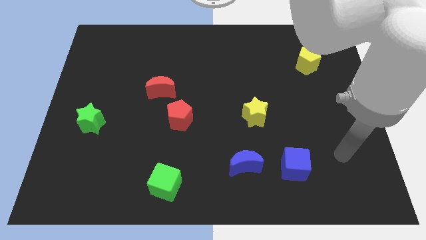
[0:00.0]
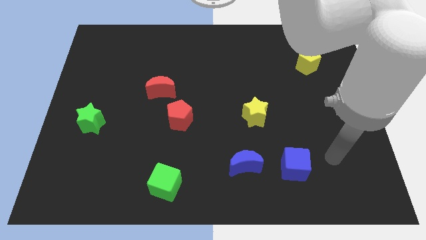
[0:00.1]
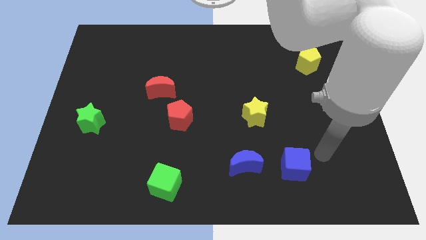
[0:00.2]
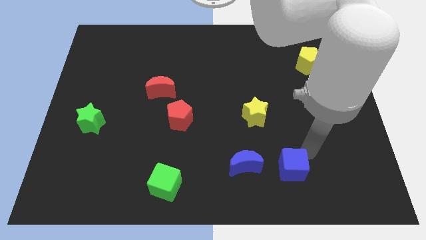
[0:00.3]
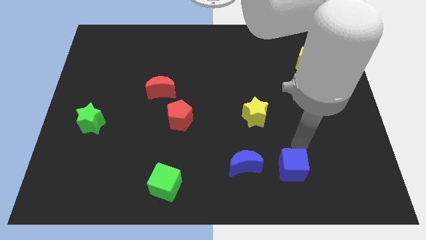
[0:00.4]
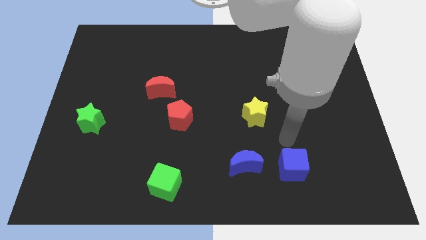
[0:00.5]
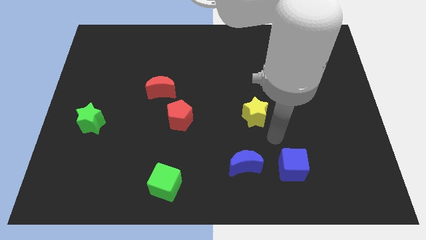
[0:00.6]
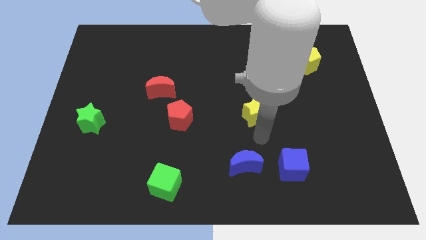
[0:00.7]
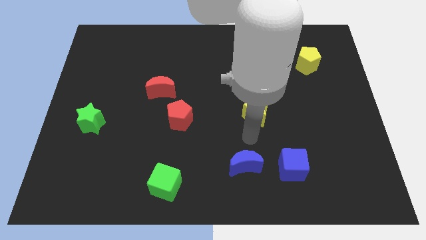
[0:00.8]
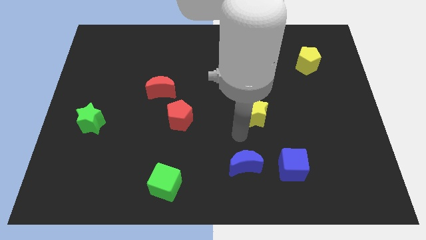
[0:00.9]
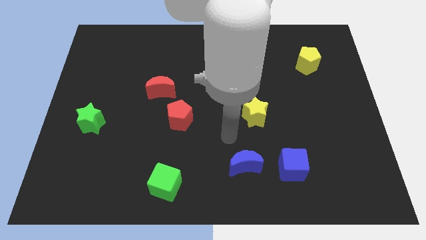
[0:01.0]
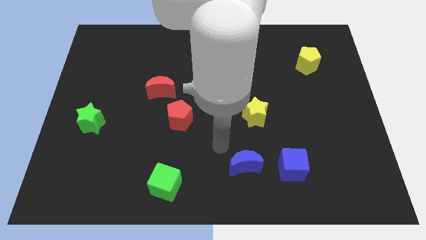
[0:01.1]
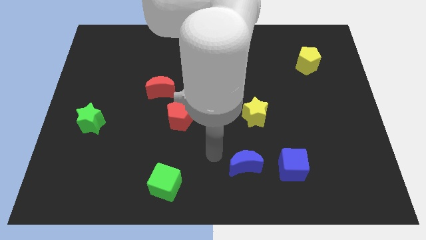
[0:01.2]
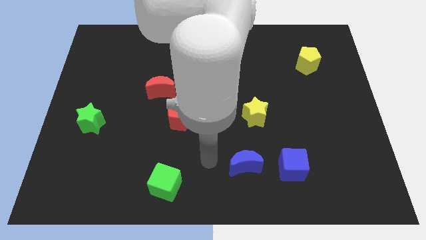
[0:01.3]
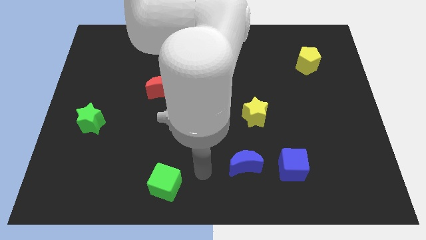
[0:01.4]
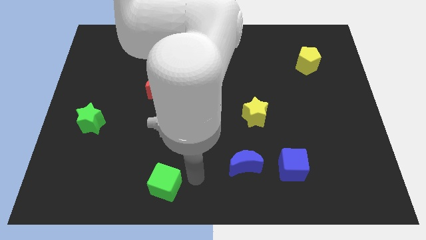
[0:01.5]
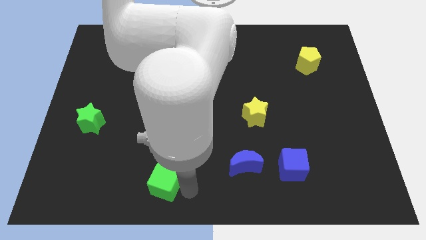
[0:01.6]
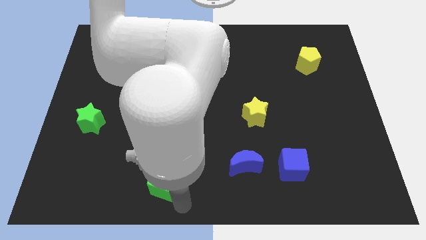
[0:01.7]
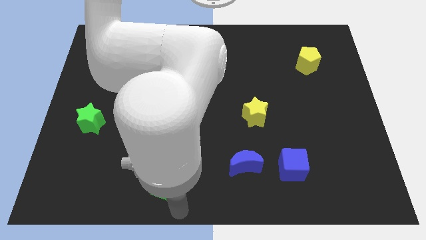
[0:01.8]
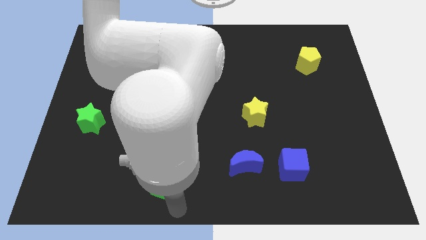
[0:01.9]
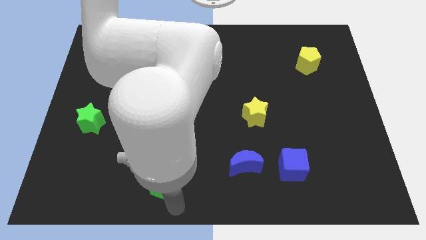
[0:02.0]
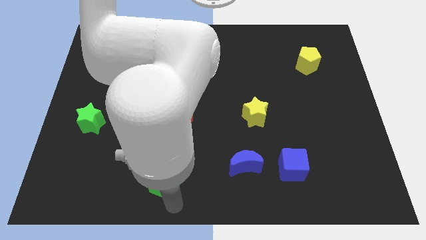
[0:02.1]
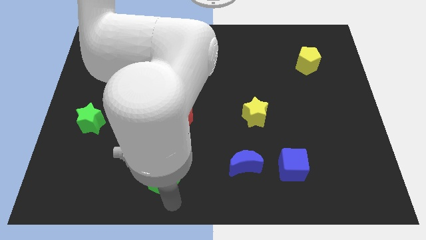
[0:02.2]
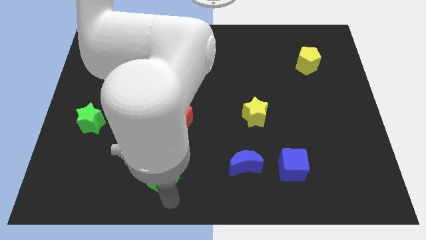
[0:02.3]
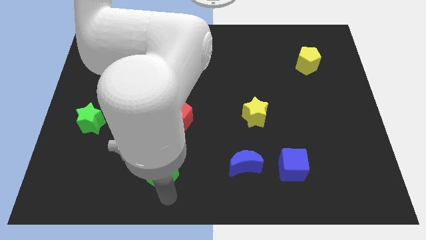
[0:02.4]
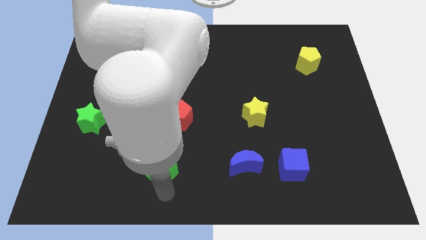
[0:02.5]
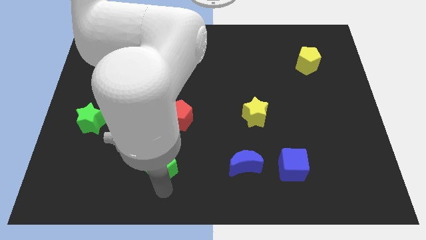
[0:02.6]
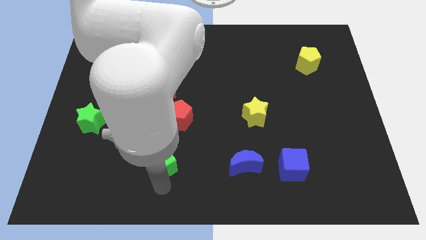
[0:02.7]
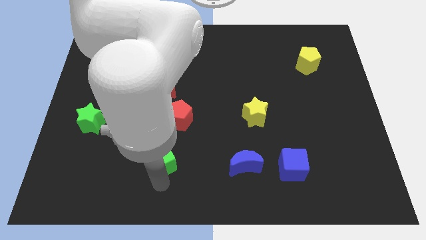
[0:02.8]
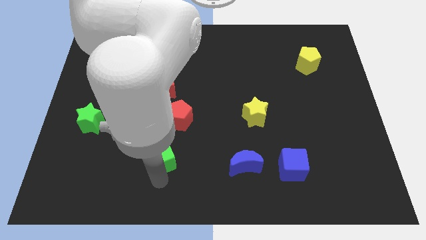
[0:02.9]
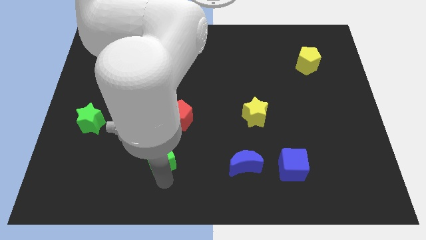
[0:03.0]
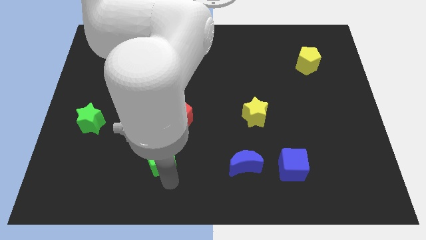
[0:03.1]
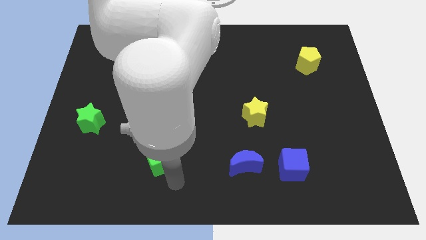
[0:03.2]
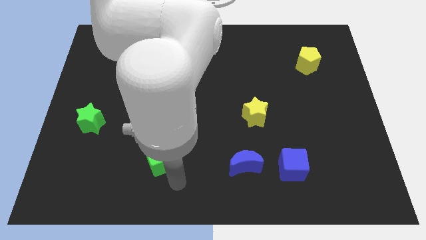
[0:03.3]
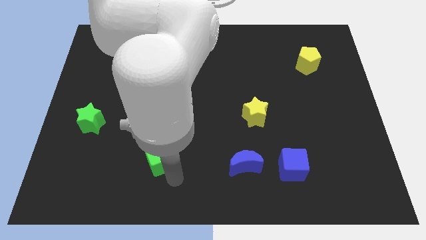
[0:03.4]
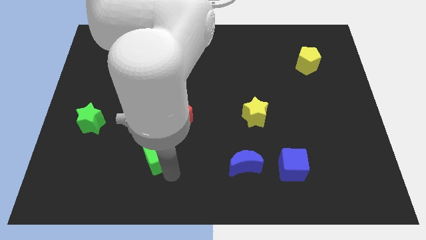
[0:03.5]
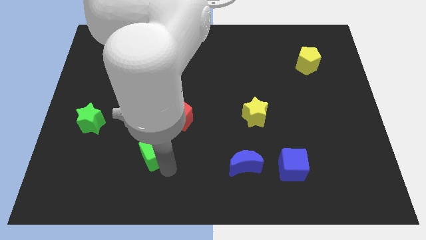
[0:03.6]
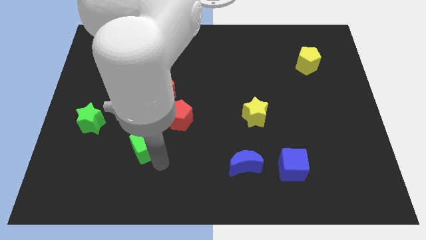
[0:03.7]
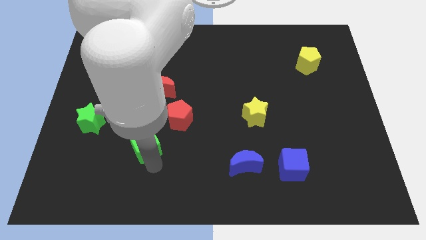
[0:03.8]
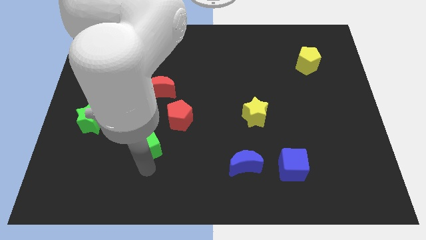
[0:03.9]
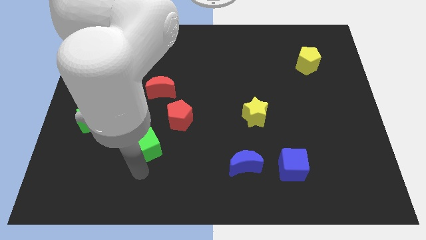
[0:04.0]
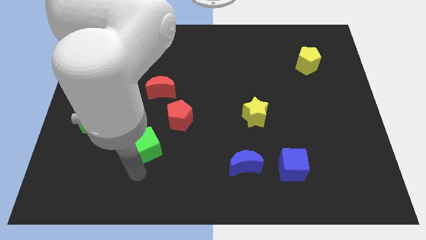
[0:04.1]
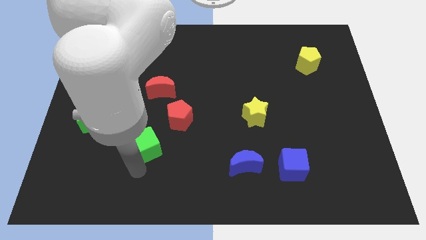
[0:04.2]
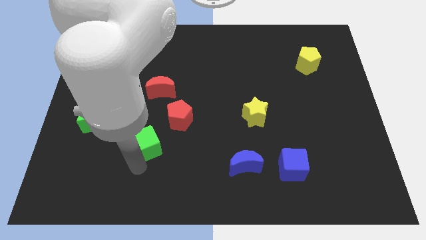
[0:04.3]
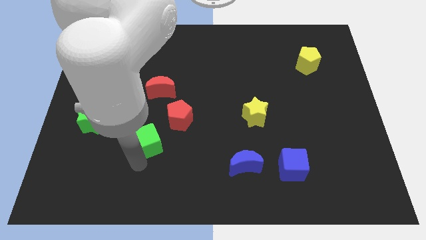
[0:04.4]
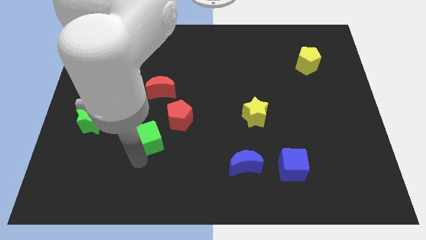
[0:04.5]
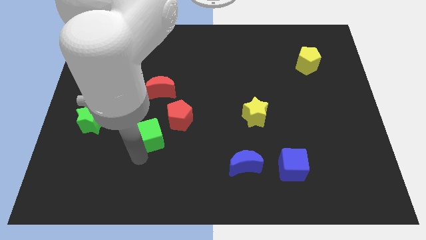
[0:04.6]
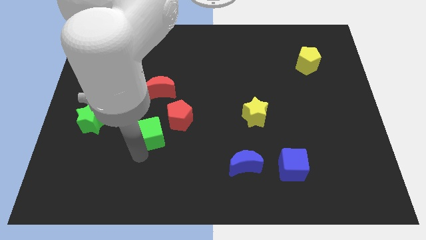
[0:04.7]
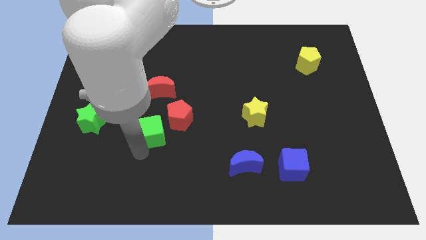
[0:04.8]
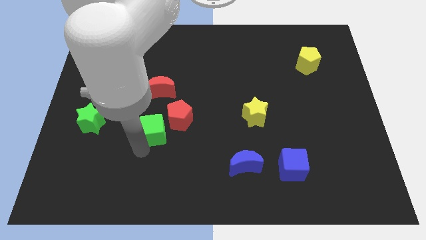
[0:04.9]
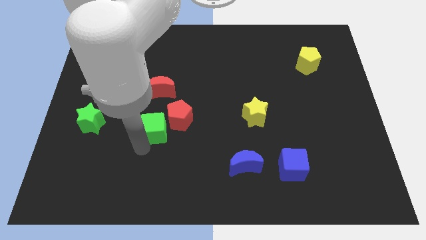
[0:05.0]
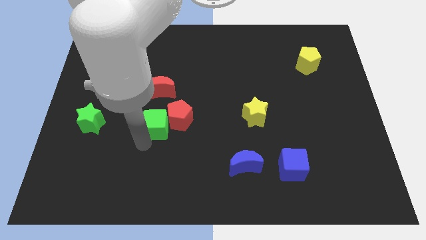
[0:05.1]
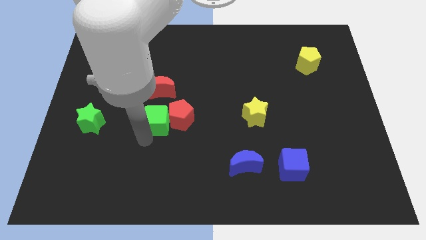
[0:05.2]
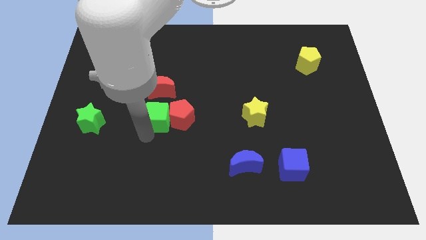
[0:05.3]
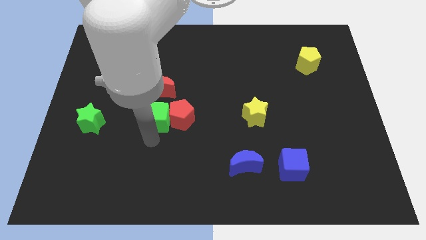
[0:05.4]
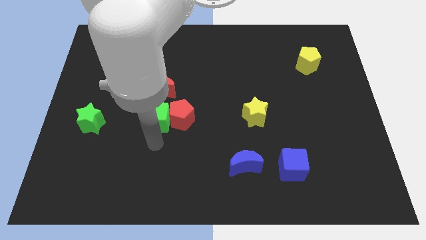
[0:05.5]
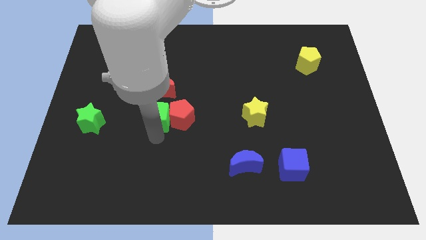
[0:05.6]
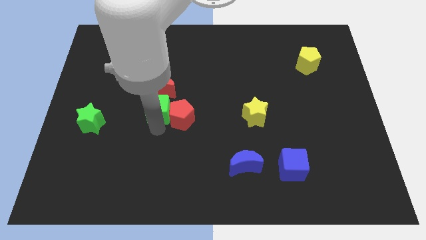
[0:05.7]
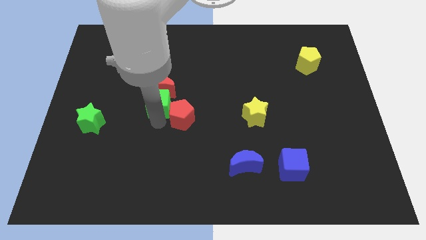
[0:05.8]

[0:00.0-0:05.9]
push the green cube close to the red moon

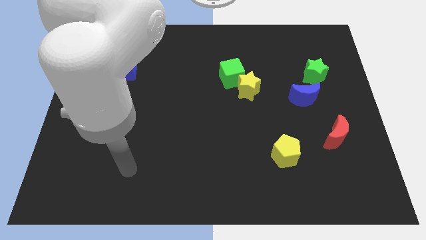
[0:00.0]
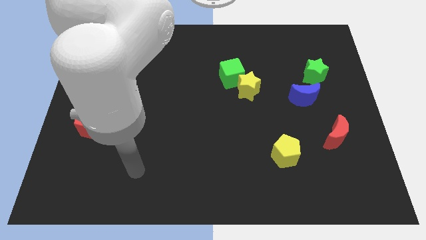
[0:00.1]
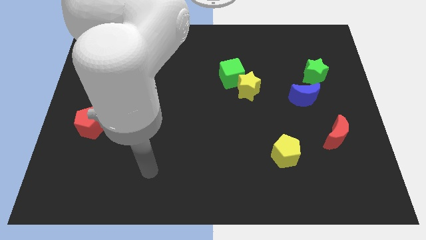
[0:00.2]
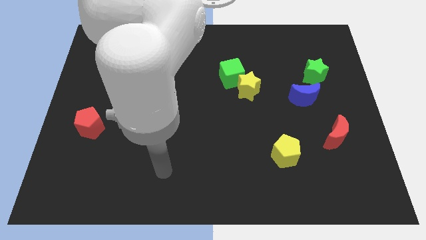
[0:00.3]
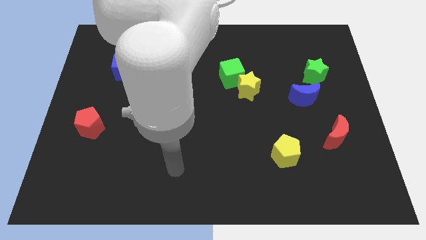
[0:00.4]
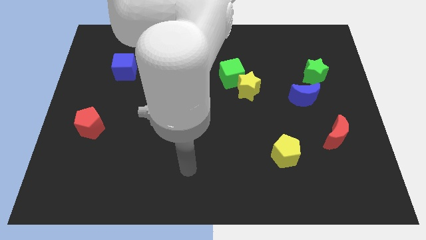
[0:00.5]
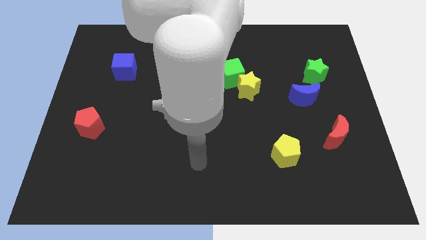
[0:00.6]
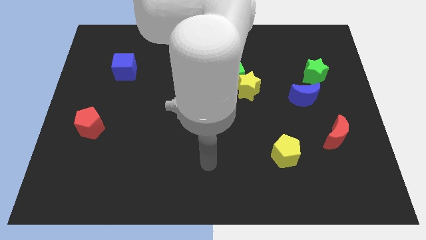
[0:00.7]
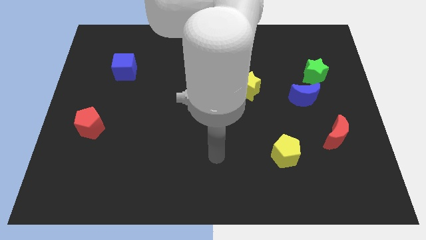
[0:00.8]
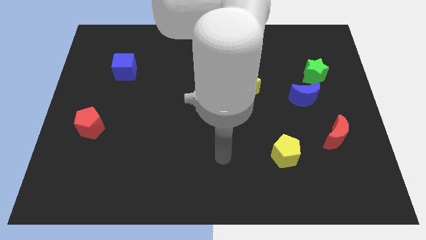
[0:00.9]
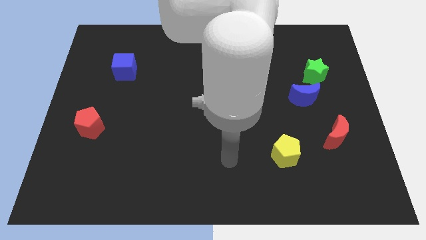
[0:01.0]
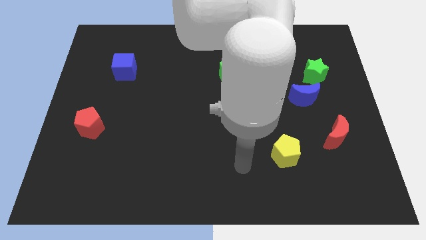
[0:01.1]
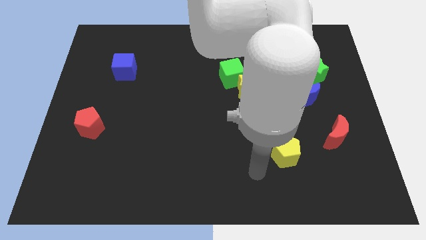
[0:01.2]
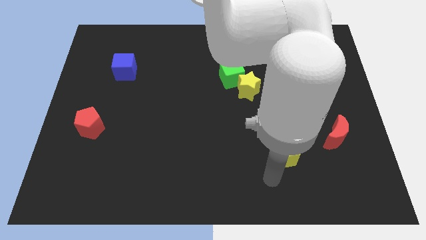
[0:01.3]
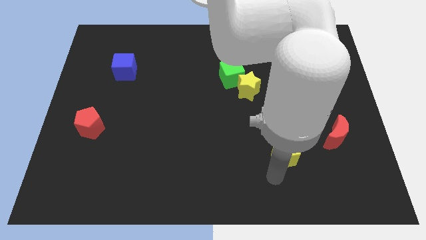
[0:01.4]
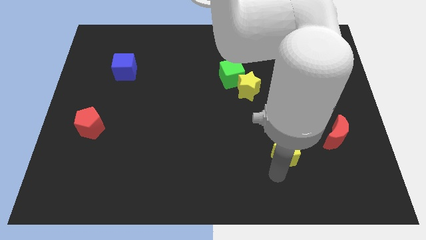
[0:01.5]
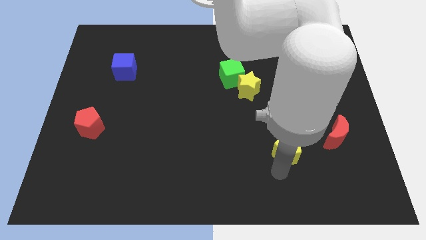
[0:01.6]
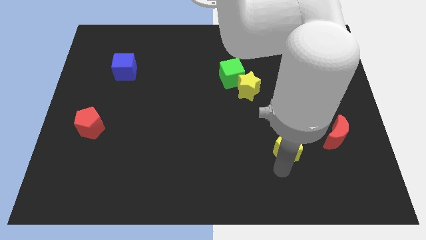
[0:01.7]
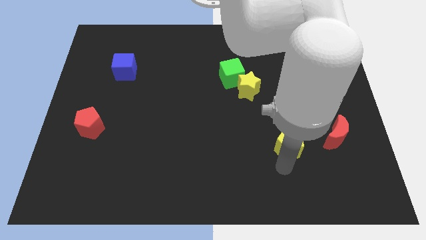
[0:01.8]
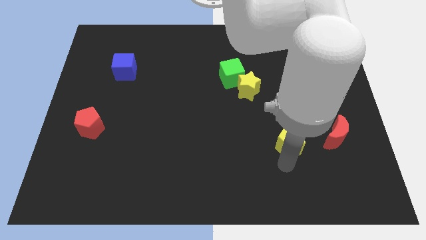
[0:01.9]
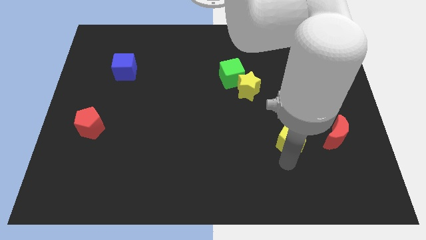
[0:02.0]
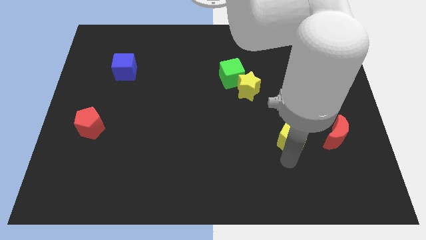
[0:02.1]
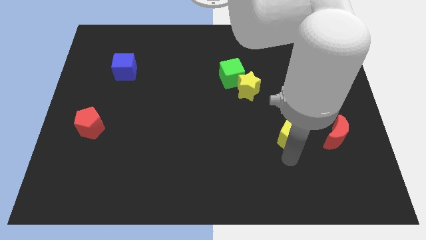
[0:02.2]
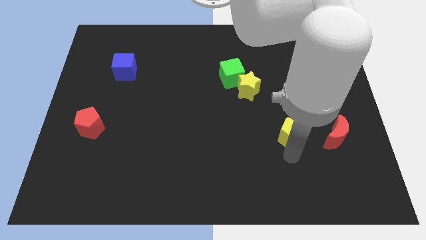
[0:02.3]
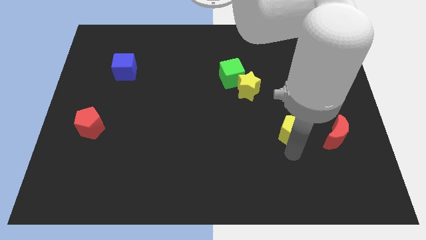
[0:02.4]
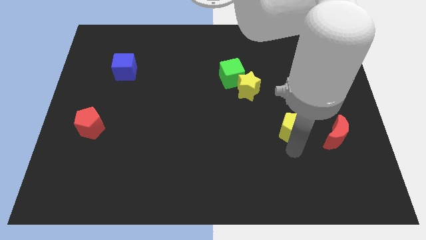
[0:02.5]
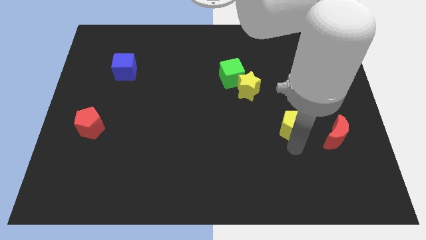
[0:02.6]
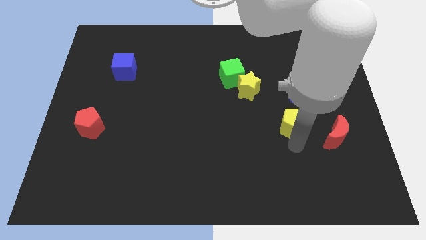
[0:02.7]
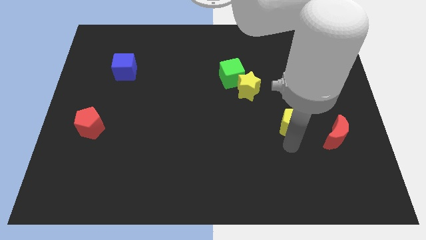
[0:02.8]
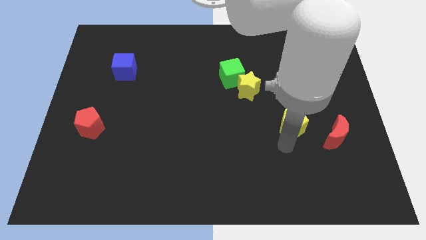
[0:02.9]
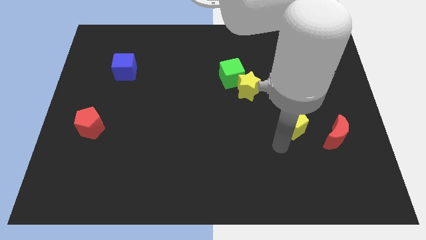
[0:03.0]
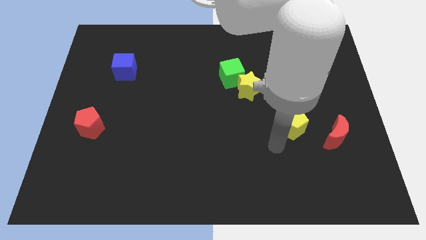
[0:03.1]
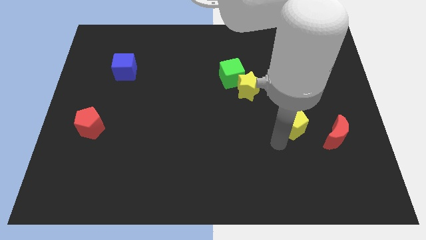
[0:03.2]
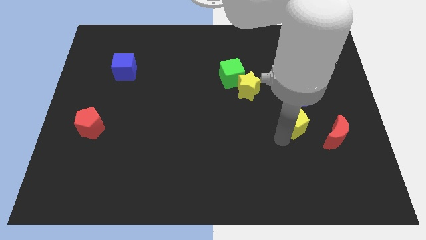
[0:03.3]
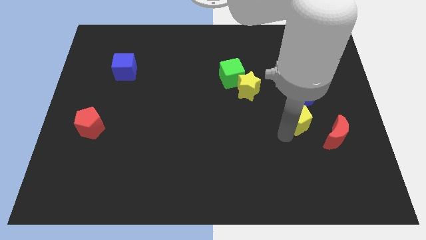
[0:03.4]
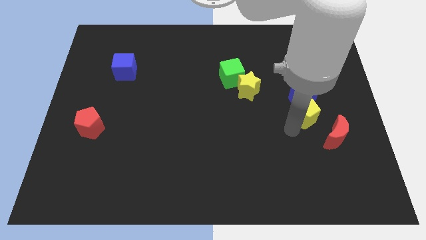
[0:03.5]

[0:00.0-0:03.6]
push the yellow pentagon close to the blue moon
